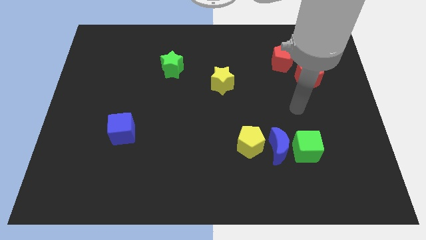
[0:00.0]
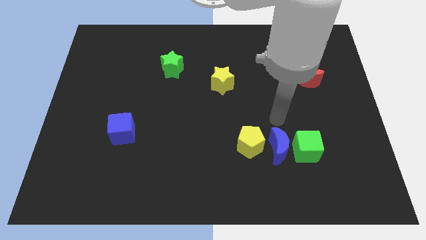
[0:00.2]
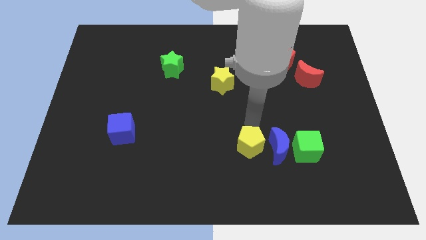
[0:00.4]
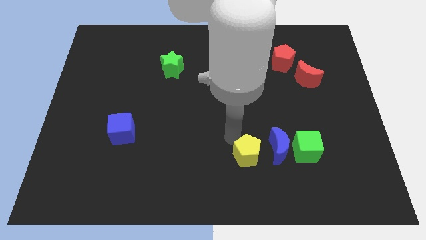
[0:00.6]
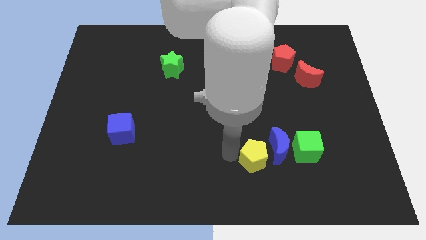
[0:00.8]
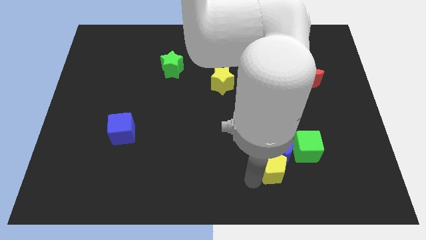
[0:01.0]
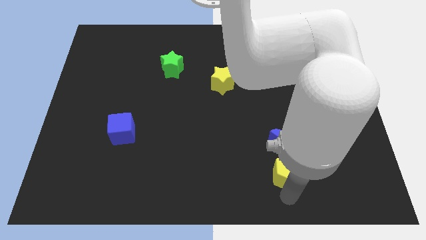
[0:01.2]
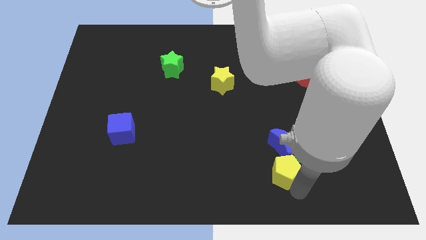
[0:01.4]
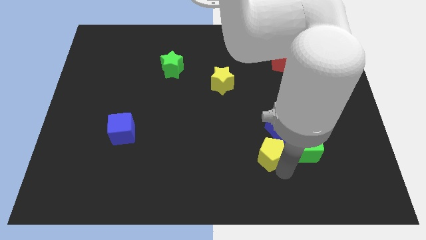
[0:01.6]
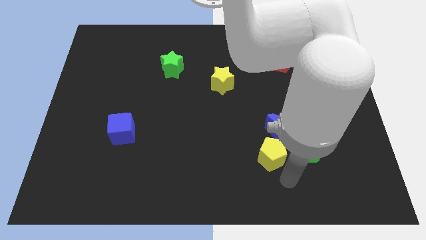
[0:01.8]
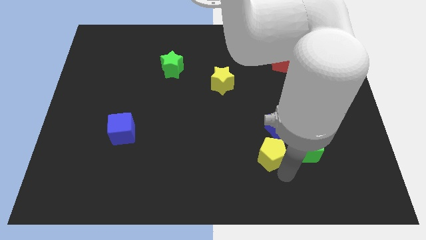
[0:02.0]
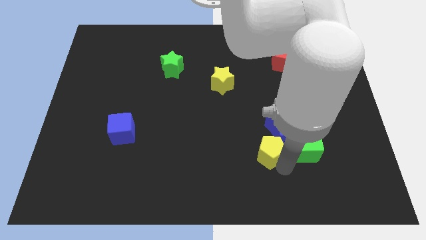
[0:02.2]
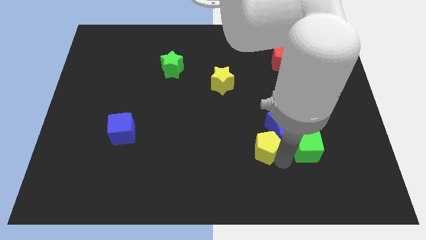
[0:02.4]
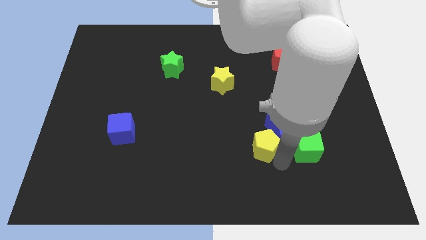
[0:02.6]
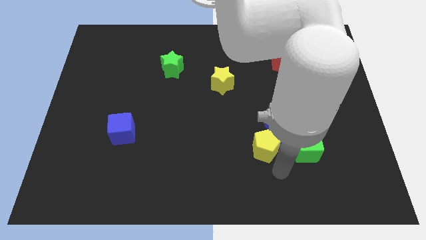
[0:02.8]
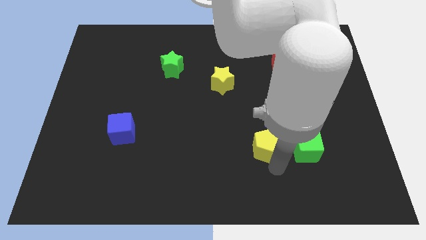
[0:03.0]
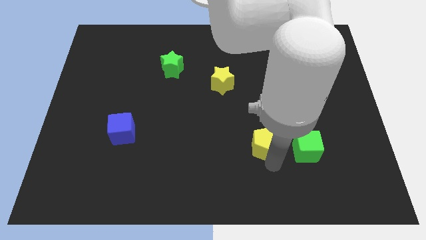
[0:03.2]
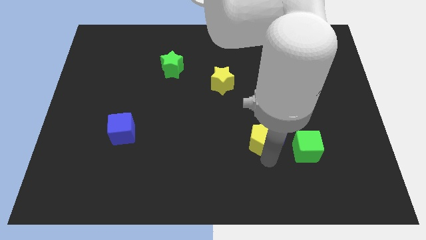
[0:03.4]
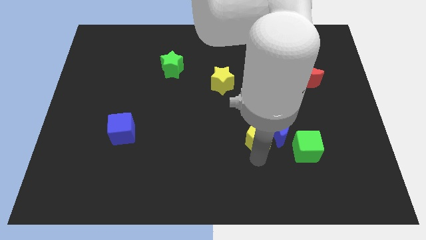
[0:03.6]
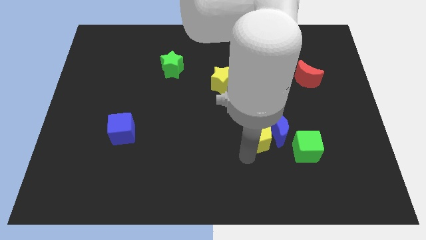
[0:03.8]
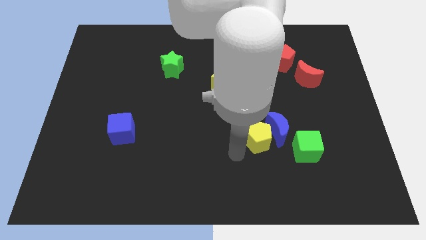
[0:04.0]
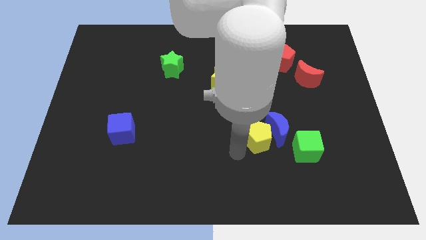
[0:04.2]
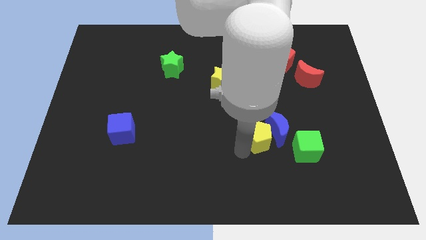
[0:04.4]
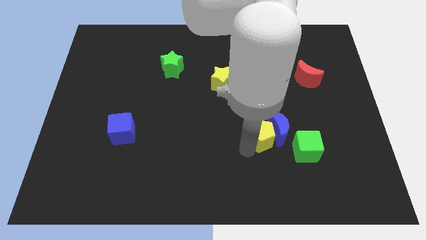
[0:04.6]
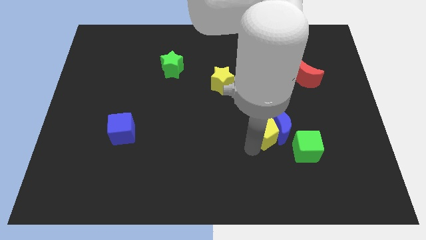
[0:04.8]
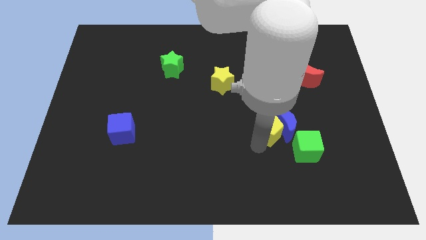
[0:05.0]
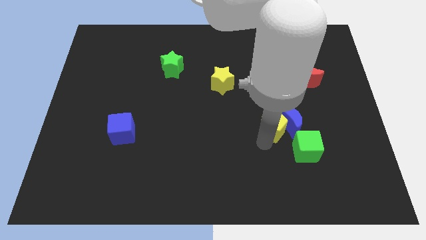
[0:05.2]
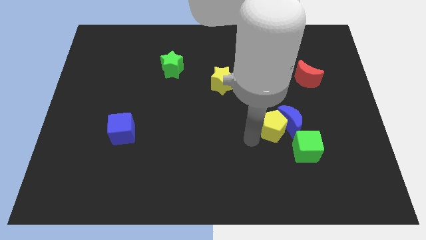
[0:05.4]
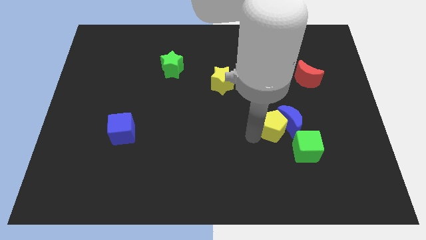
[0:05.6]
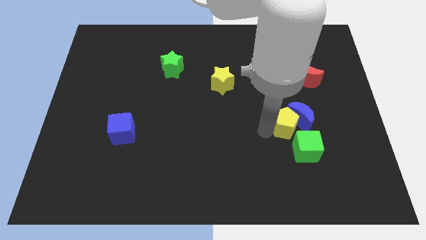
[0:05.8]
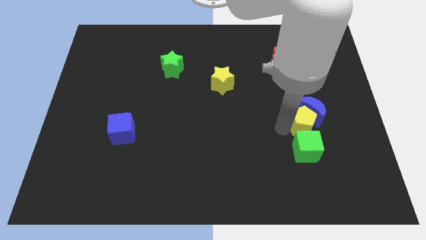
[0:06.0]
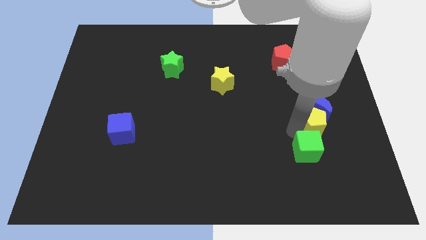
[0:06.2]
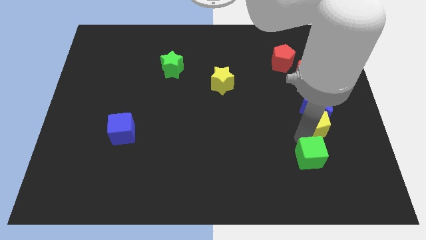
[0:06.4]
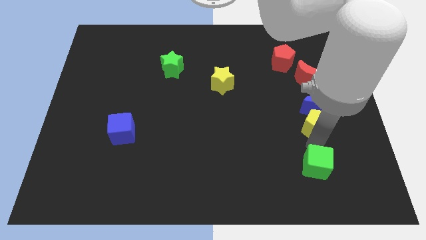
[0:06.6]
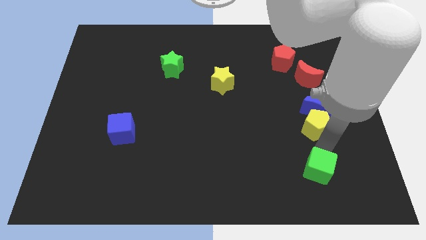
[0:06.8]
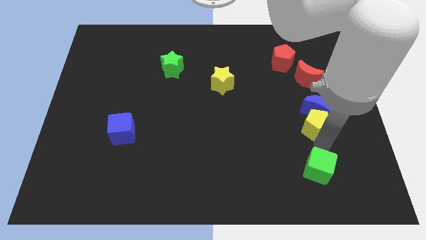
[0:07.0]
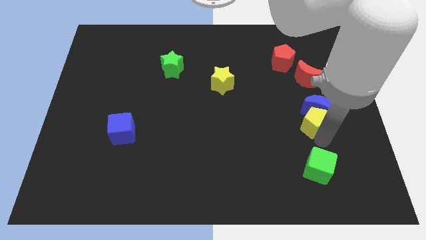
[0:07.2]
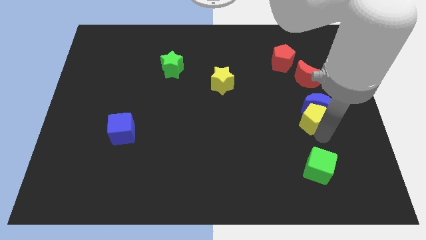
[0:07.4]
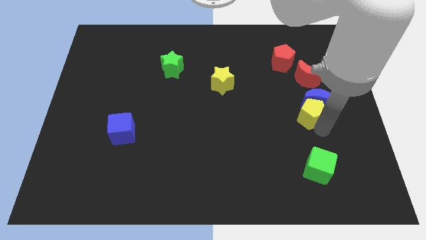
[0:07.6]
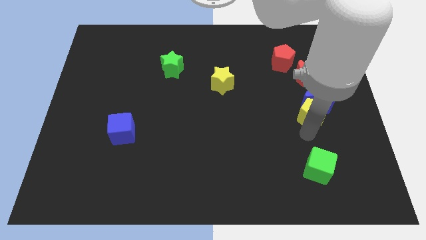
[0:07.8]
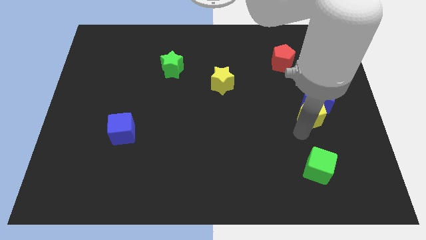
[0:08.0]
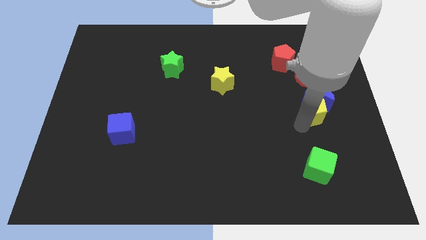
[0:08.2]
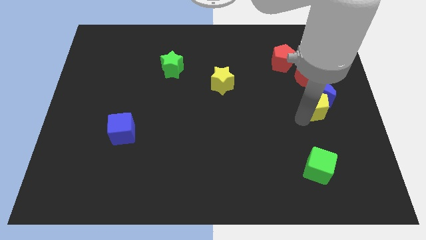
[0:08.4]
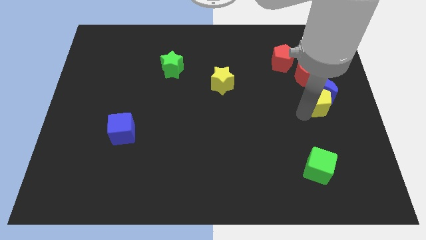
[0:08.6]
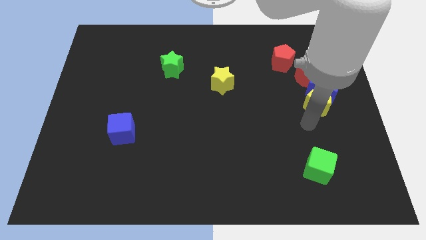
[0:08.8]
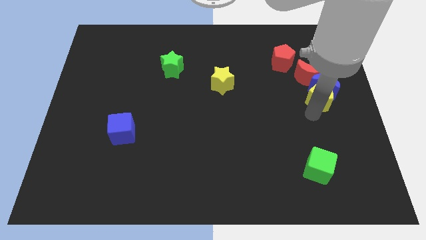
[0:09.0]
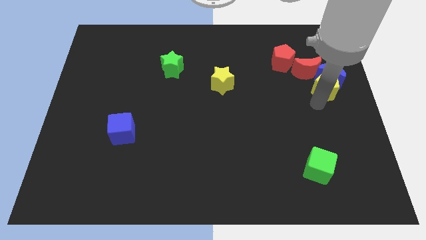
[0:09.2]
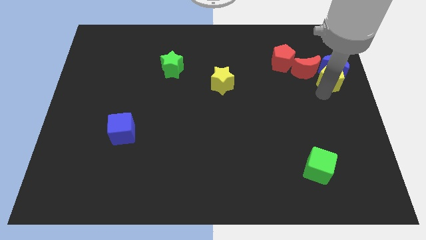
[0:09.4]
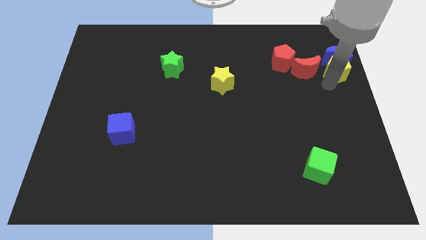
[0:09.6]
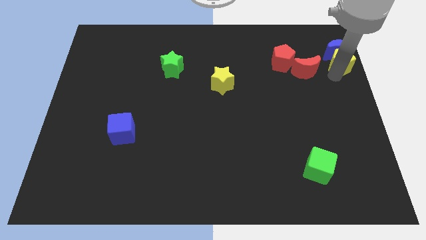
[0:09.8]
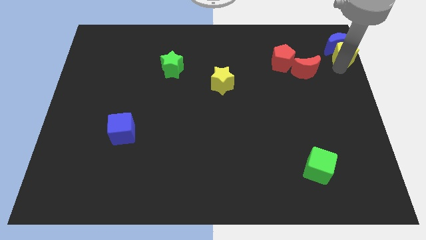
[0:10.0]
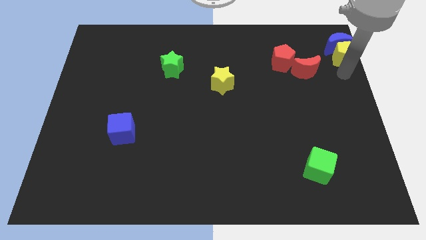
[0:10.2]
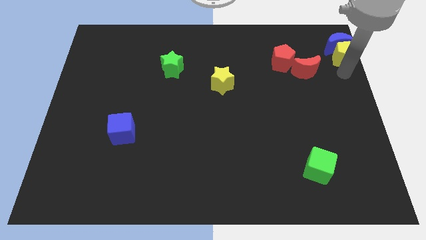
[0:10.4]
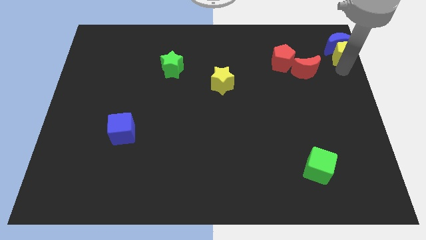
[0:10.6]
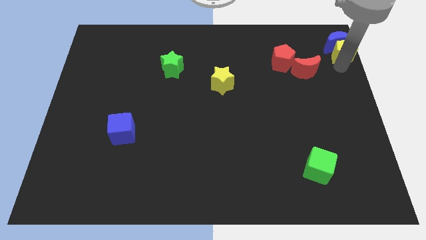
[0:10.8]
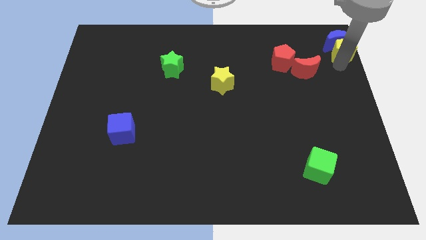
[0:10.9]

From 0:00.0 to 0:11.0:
put the yellow pentagon to the upper right corner

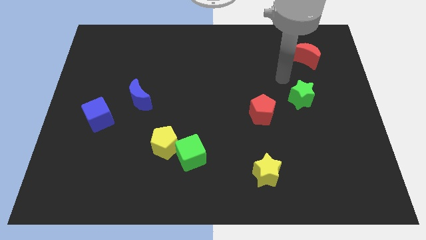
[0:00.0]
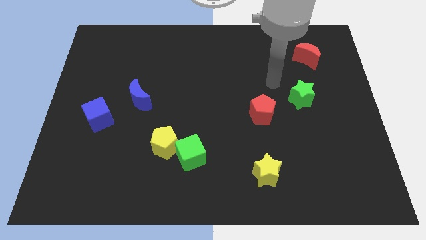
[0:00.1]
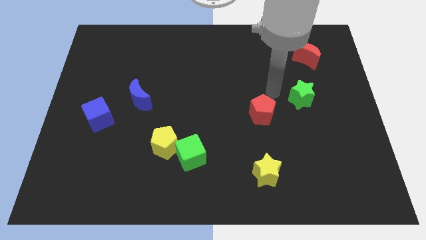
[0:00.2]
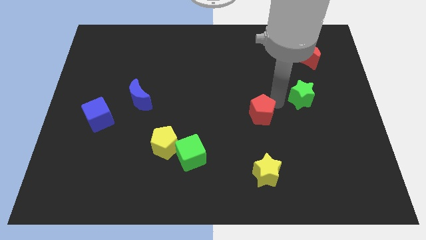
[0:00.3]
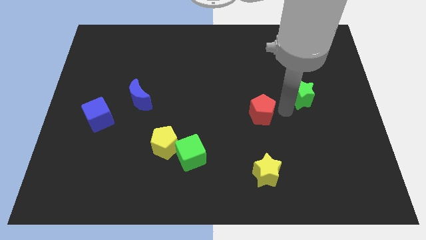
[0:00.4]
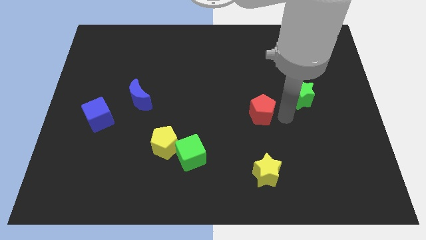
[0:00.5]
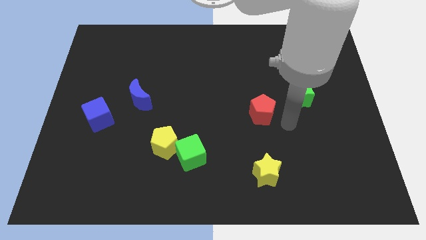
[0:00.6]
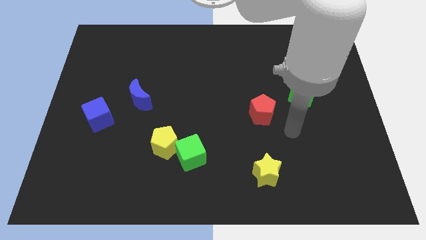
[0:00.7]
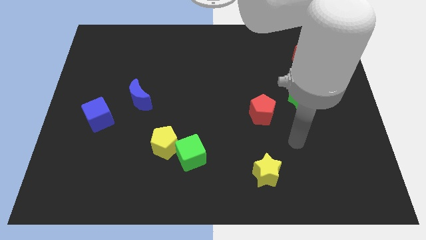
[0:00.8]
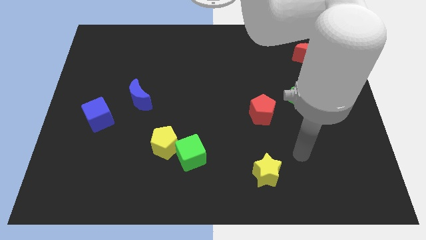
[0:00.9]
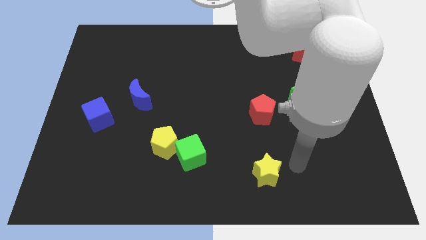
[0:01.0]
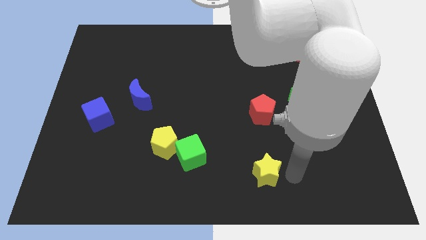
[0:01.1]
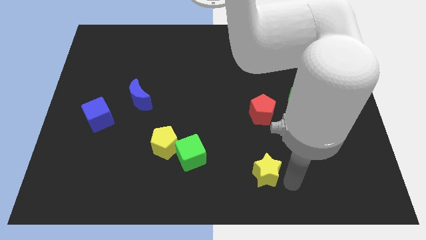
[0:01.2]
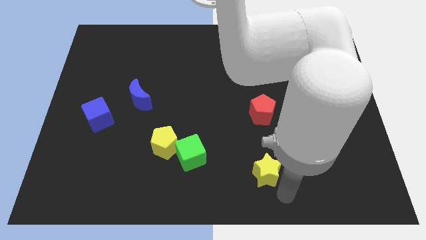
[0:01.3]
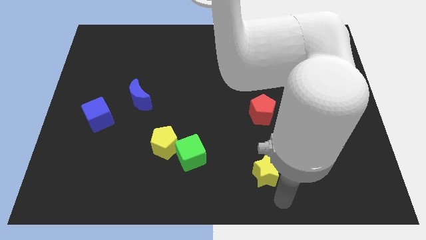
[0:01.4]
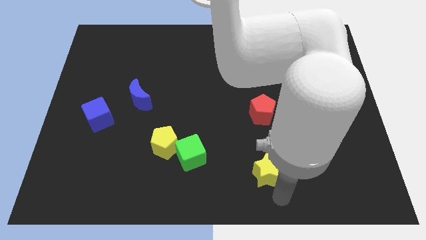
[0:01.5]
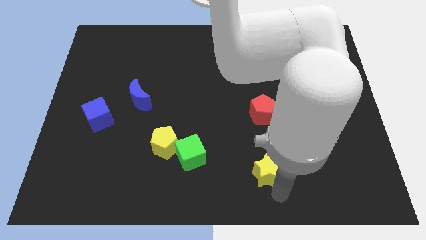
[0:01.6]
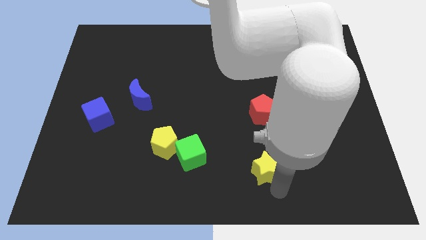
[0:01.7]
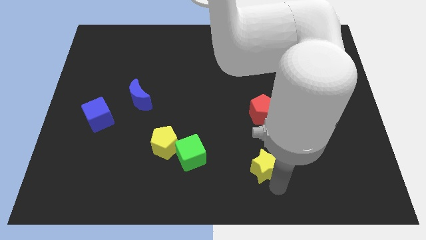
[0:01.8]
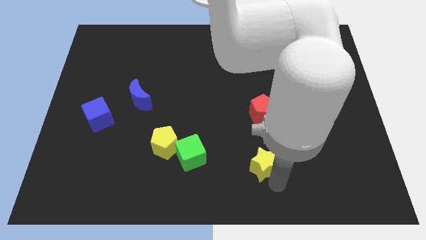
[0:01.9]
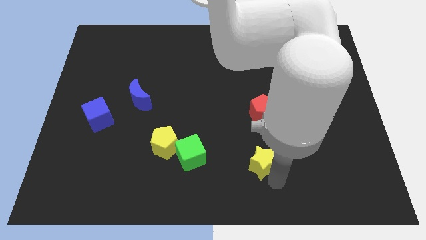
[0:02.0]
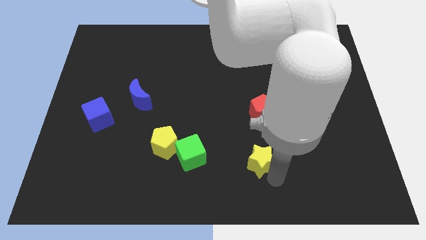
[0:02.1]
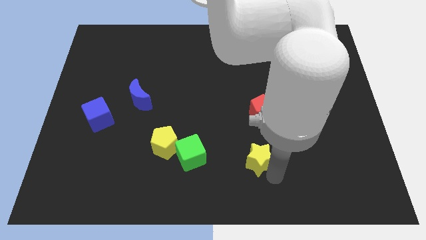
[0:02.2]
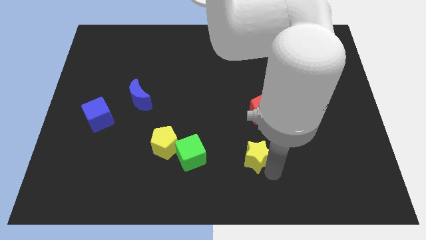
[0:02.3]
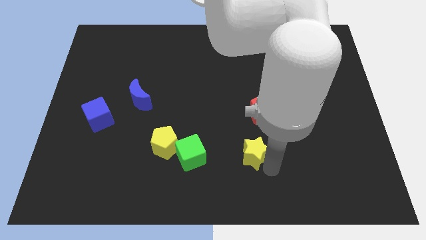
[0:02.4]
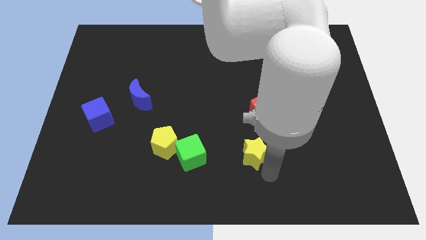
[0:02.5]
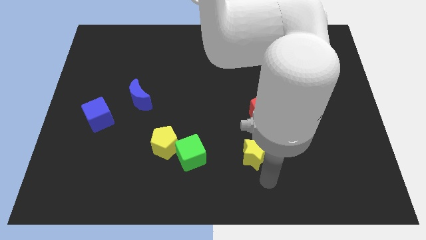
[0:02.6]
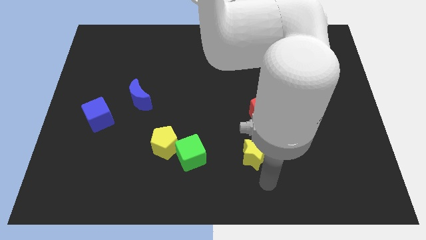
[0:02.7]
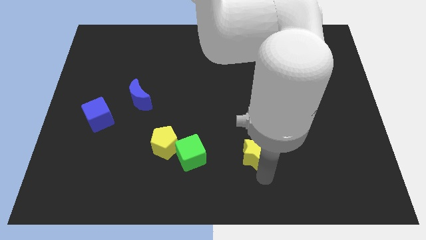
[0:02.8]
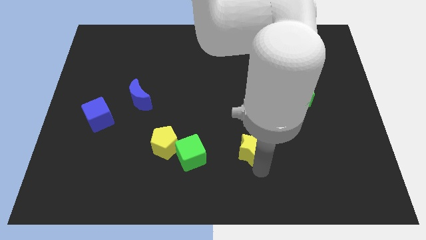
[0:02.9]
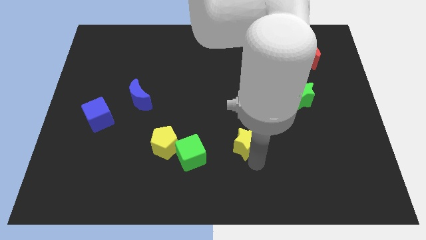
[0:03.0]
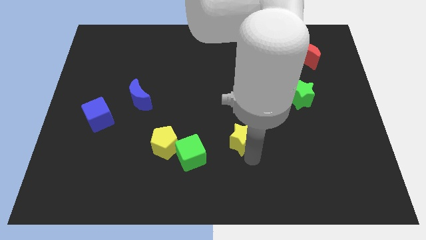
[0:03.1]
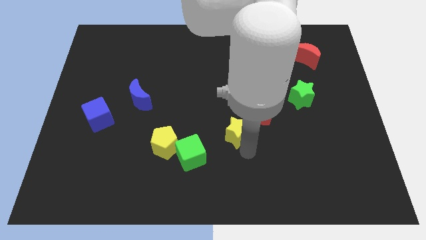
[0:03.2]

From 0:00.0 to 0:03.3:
slide the yellow star to the middle of the board
